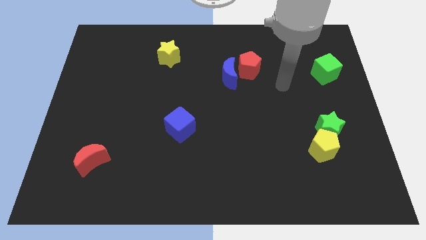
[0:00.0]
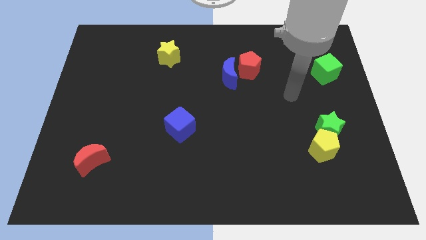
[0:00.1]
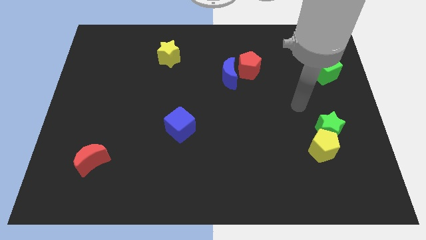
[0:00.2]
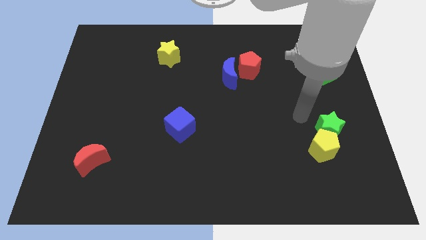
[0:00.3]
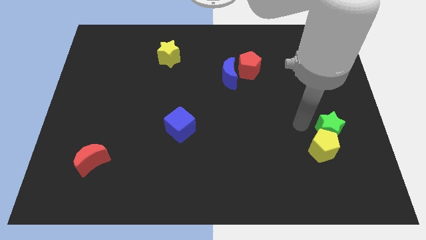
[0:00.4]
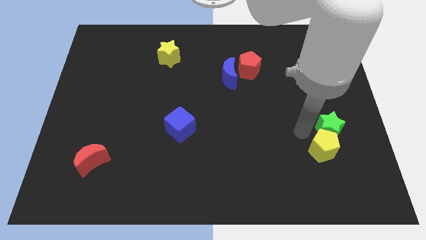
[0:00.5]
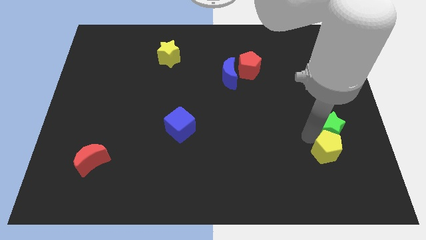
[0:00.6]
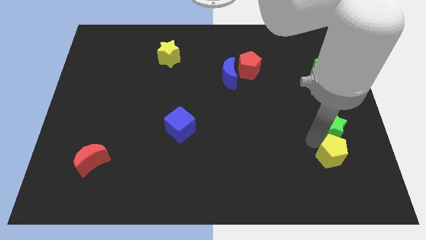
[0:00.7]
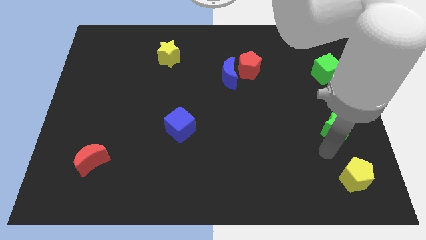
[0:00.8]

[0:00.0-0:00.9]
pull the green star apart from the yellow pentagon

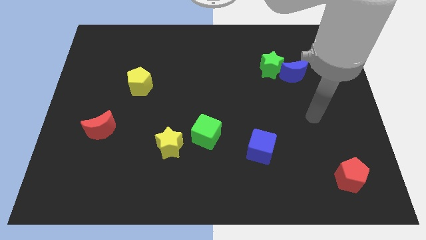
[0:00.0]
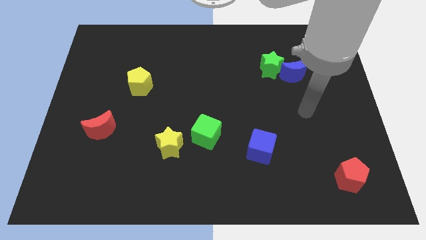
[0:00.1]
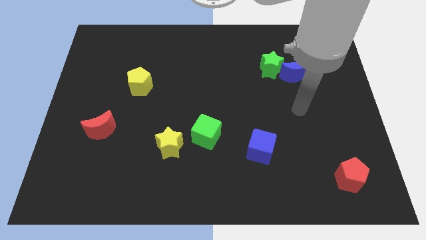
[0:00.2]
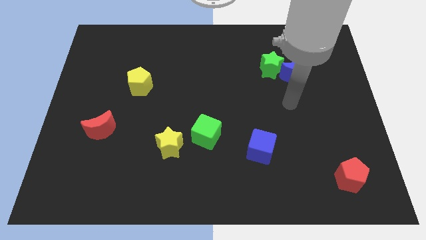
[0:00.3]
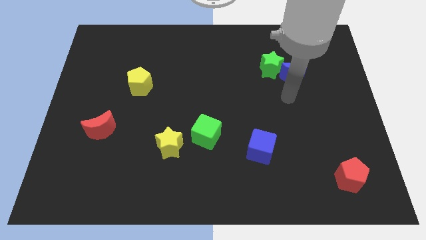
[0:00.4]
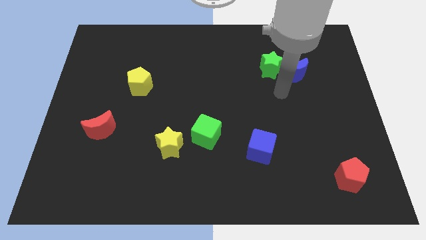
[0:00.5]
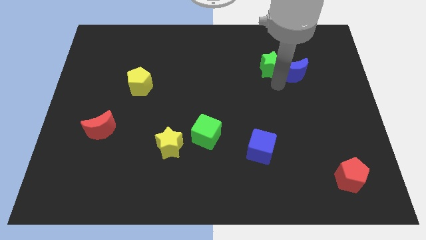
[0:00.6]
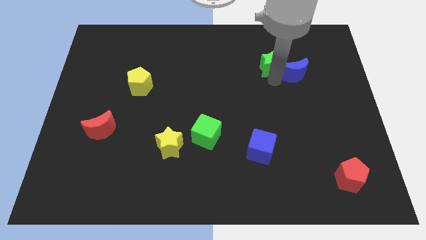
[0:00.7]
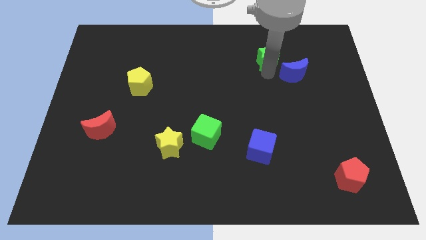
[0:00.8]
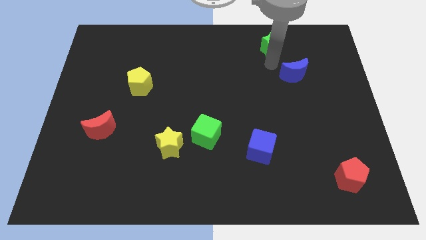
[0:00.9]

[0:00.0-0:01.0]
move the blue moon away from the green star

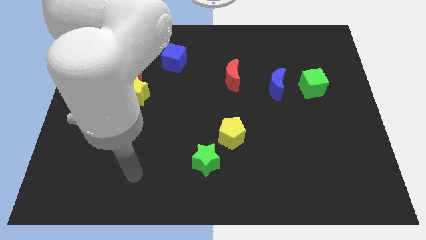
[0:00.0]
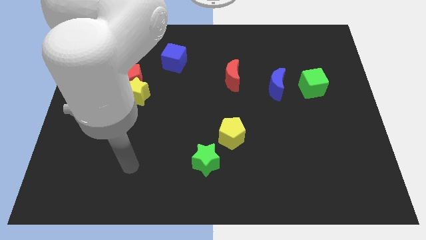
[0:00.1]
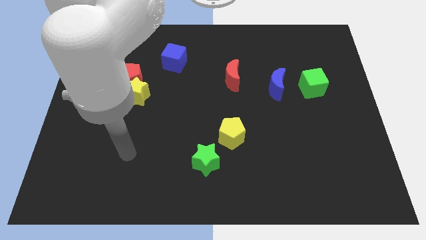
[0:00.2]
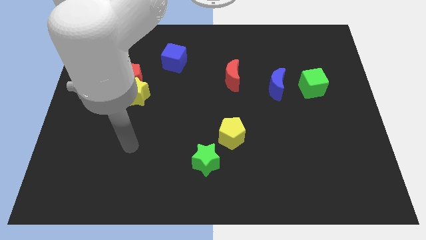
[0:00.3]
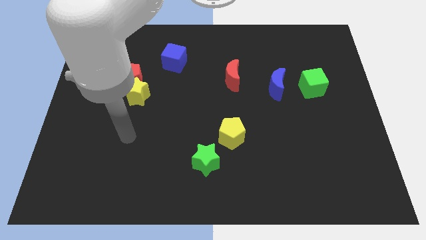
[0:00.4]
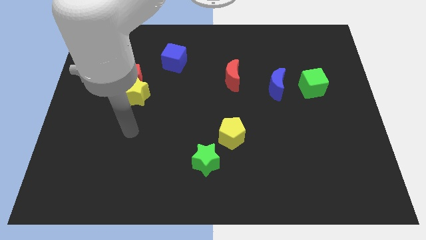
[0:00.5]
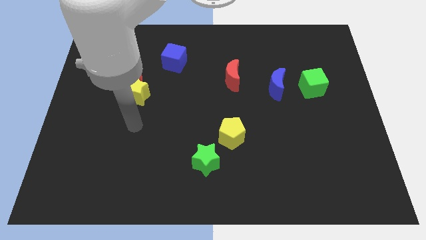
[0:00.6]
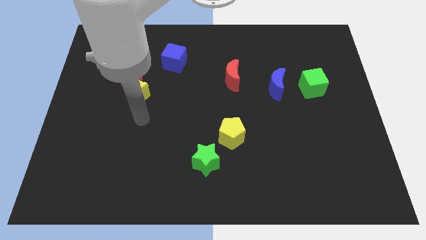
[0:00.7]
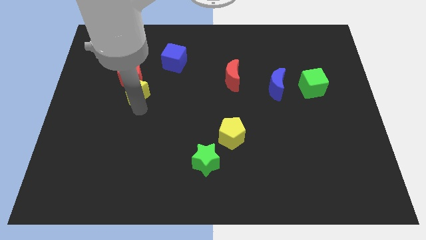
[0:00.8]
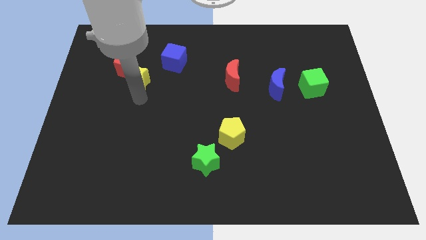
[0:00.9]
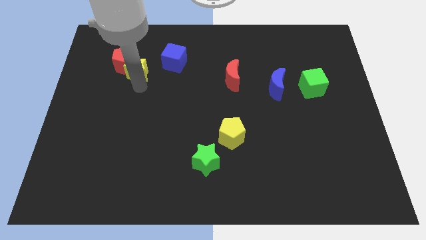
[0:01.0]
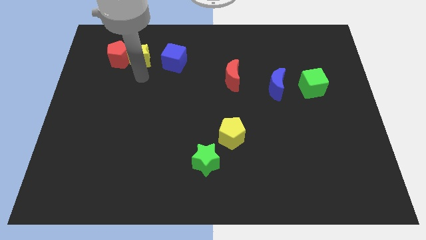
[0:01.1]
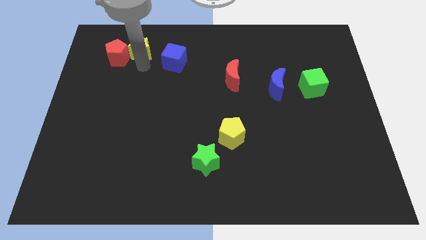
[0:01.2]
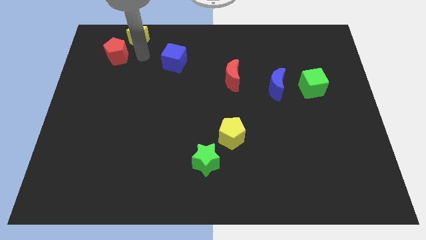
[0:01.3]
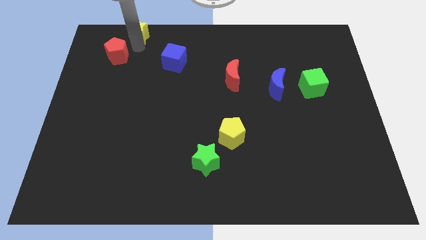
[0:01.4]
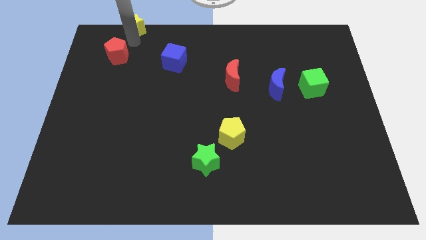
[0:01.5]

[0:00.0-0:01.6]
separate the red pentagon from the yellow star

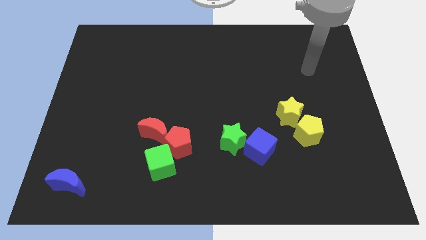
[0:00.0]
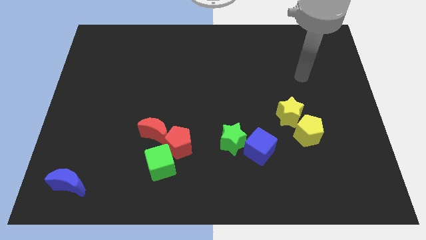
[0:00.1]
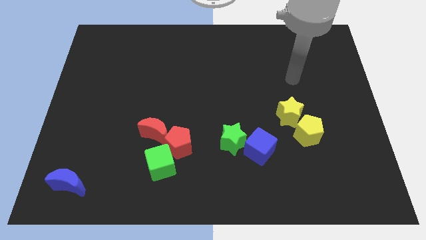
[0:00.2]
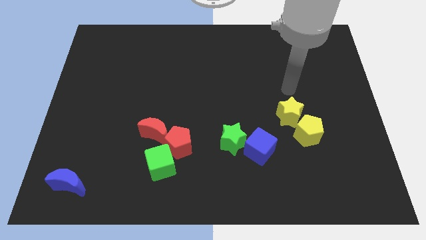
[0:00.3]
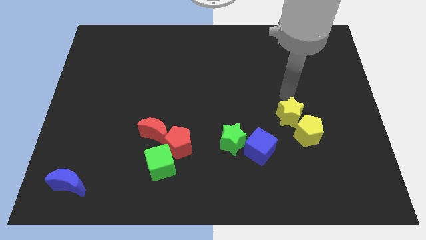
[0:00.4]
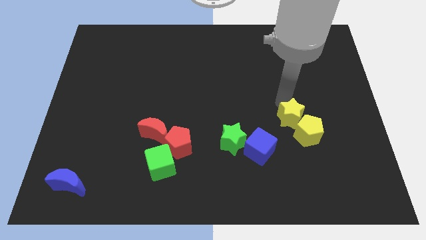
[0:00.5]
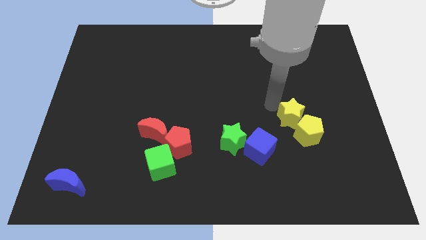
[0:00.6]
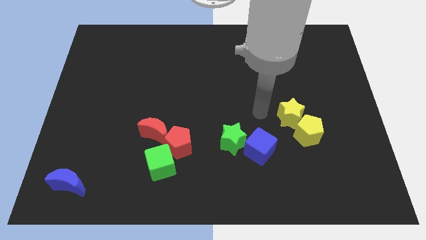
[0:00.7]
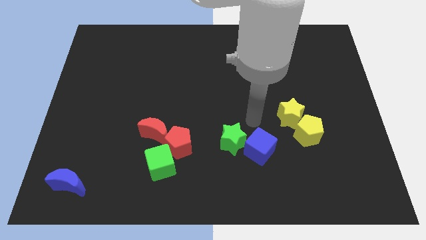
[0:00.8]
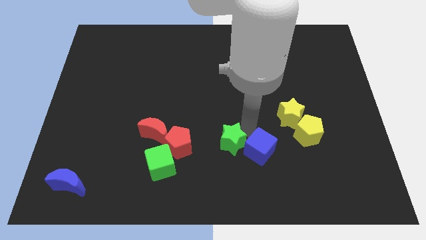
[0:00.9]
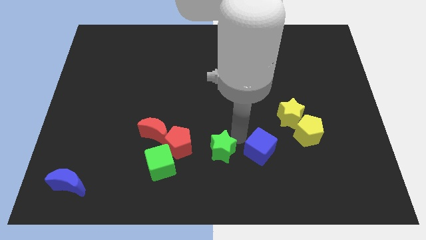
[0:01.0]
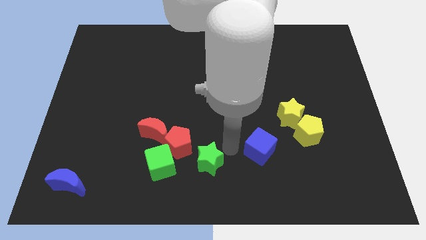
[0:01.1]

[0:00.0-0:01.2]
move the blue cube away from the green star

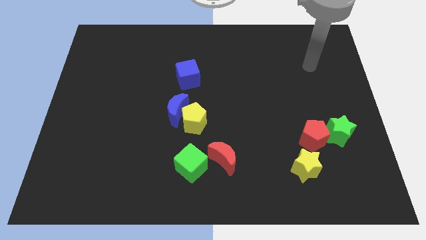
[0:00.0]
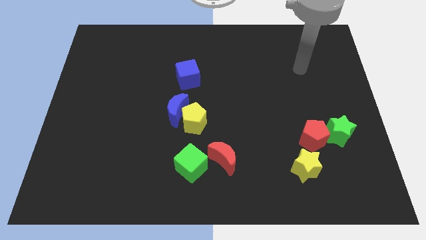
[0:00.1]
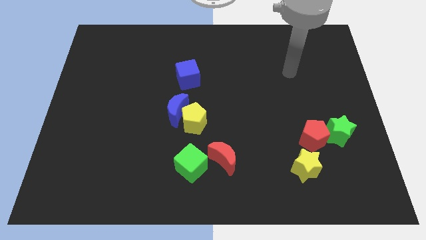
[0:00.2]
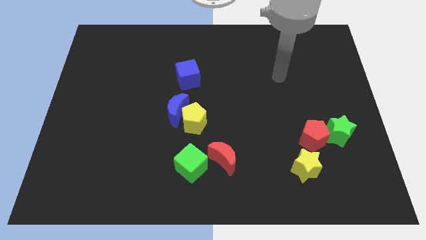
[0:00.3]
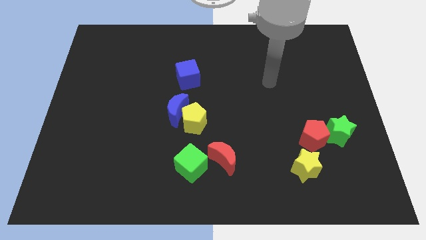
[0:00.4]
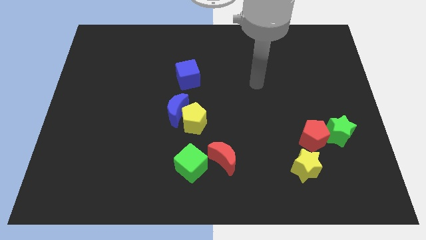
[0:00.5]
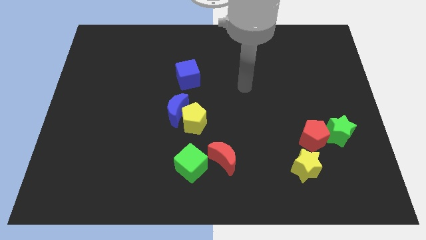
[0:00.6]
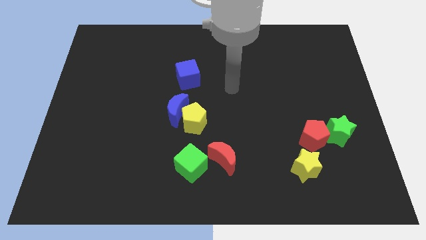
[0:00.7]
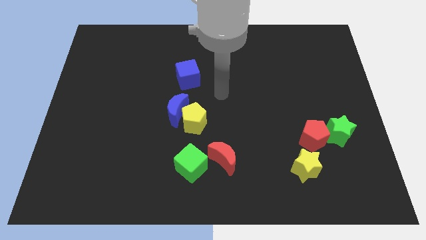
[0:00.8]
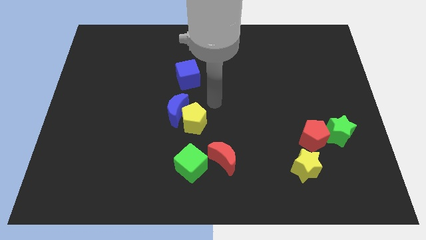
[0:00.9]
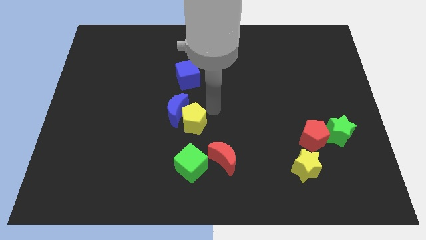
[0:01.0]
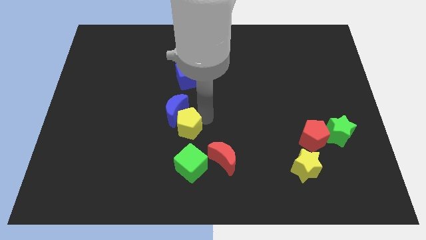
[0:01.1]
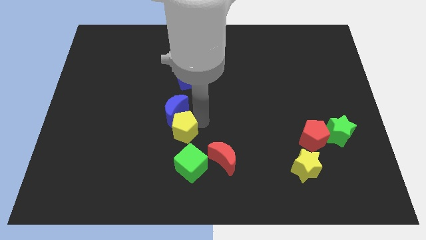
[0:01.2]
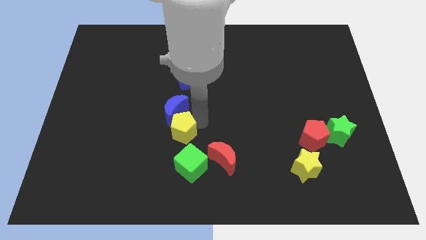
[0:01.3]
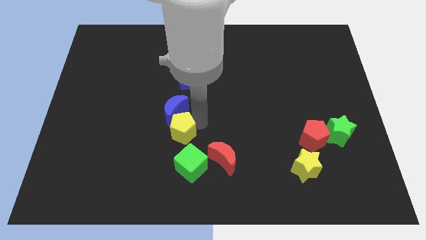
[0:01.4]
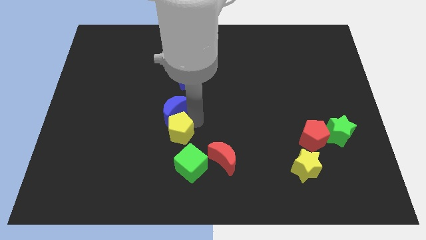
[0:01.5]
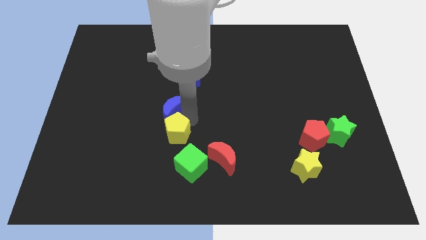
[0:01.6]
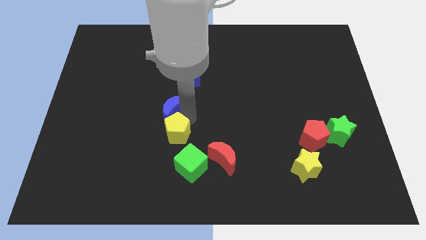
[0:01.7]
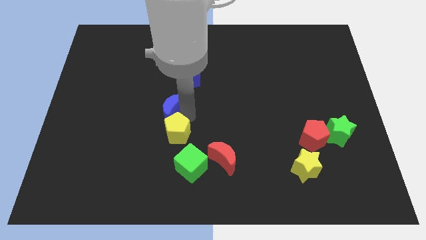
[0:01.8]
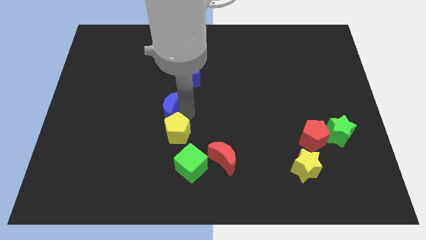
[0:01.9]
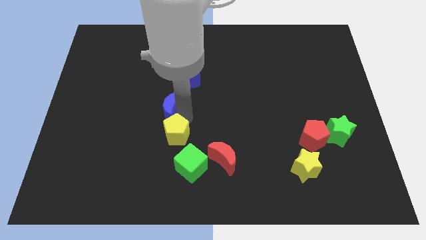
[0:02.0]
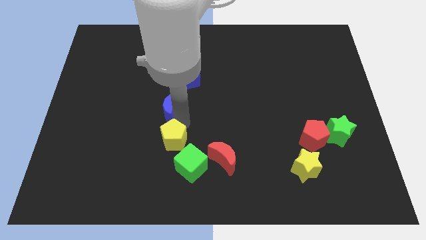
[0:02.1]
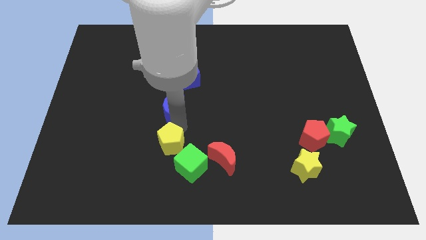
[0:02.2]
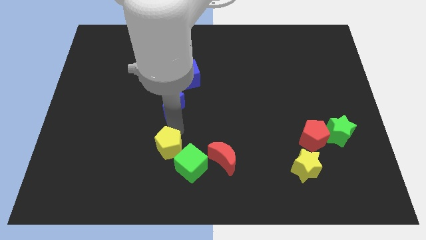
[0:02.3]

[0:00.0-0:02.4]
pull the blue moon apart from the yellow pentagon

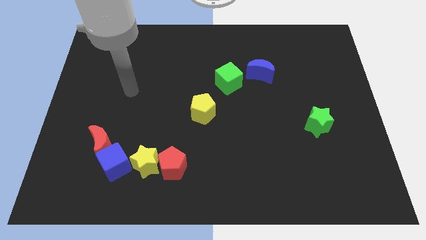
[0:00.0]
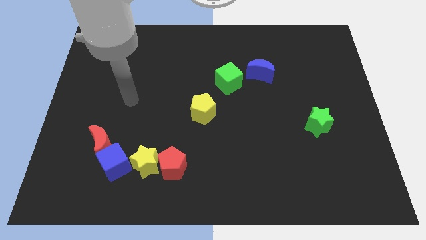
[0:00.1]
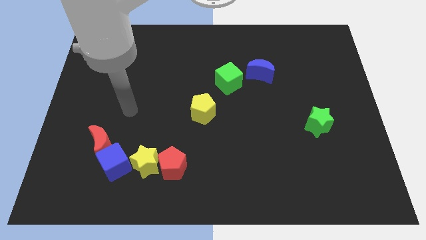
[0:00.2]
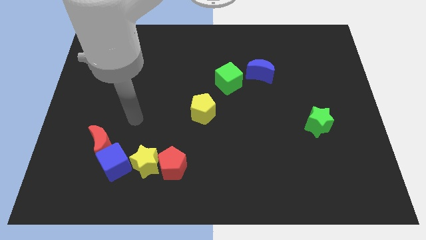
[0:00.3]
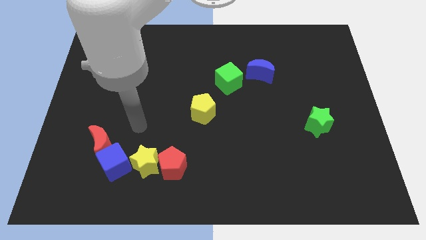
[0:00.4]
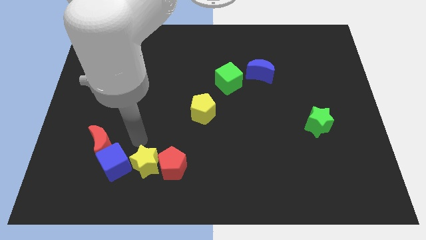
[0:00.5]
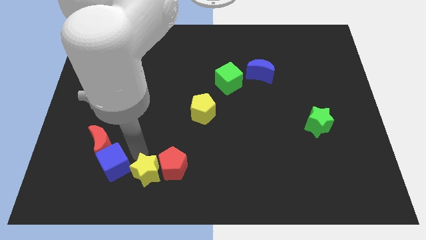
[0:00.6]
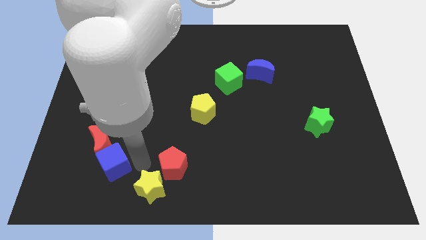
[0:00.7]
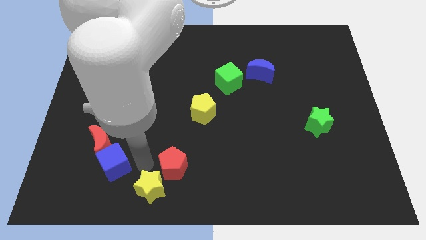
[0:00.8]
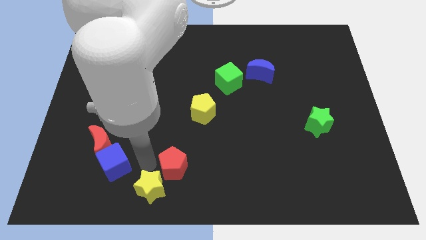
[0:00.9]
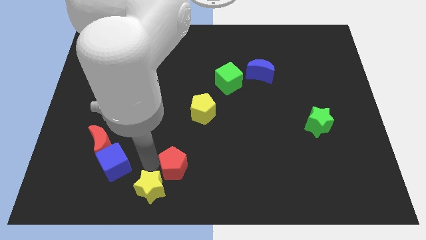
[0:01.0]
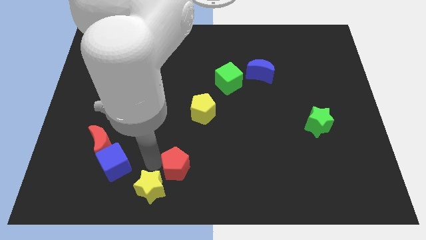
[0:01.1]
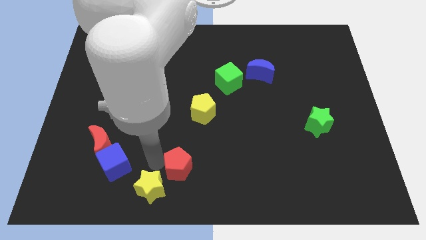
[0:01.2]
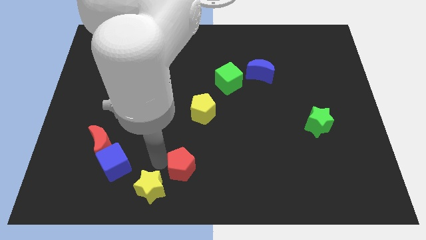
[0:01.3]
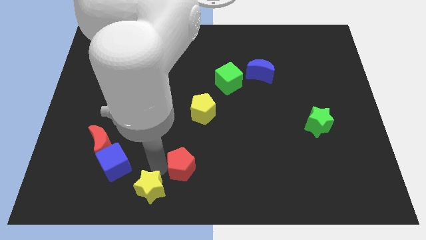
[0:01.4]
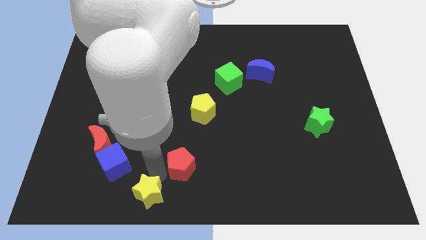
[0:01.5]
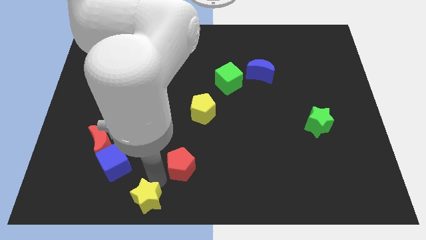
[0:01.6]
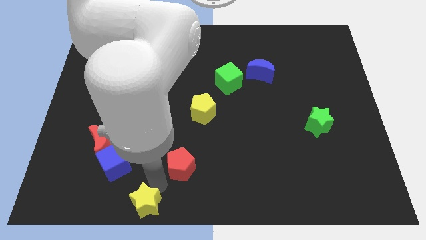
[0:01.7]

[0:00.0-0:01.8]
move the red pentagon away from the yellow star

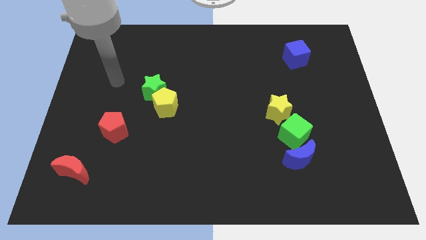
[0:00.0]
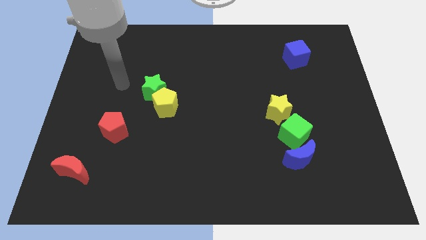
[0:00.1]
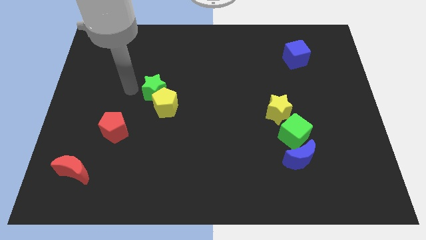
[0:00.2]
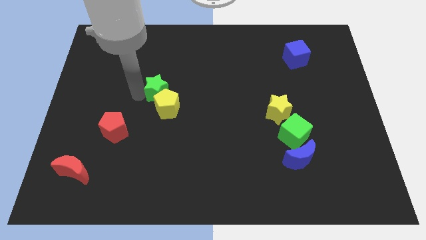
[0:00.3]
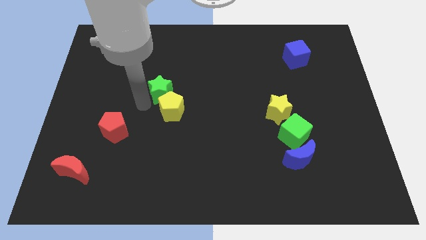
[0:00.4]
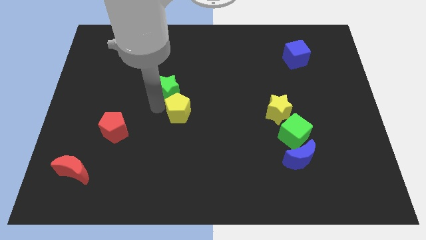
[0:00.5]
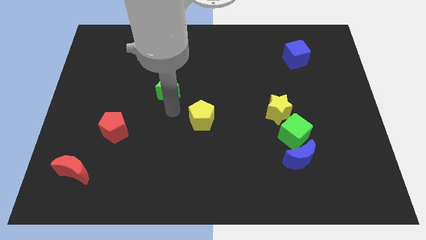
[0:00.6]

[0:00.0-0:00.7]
move the green star away from the yellow pentagon
